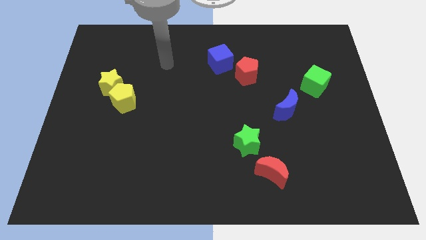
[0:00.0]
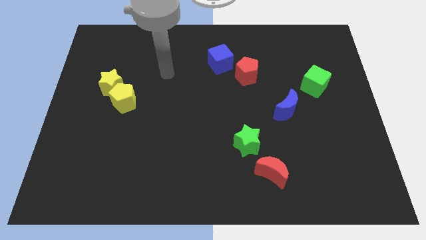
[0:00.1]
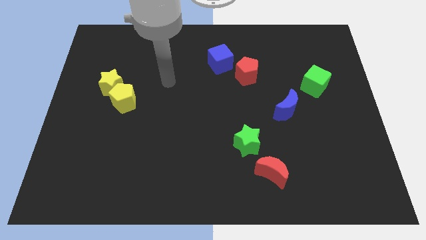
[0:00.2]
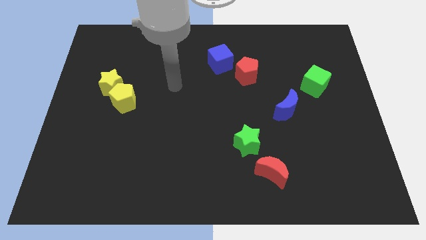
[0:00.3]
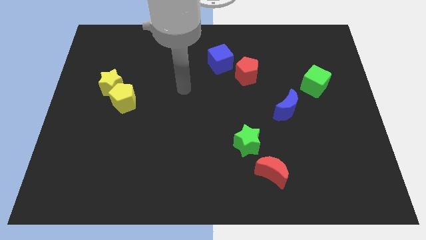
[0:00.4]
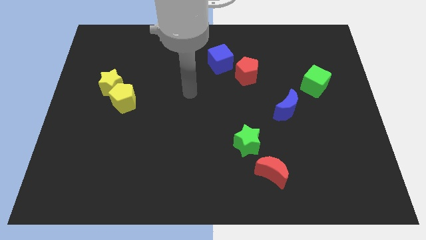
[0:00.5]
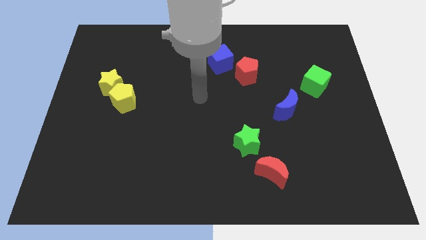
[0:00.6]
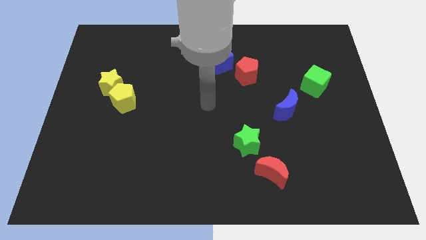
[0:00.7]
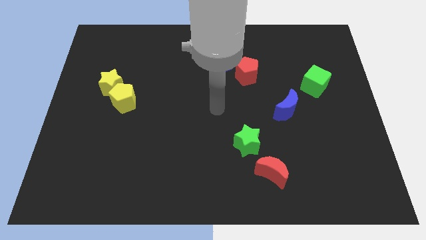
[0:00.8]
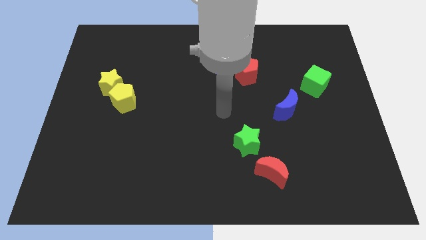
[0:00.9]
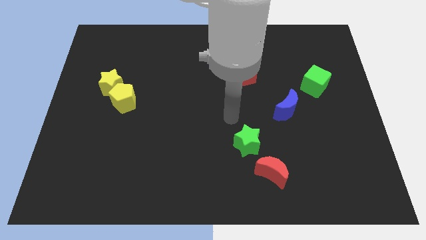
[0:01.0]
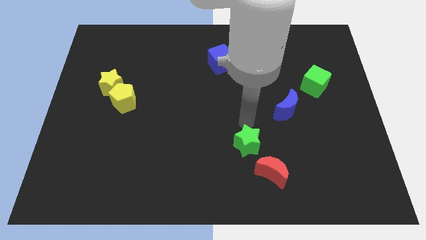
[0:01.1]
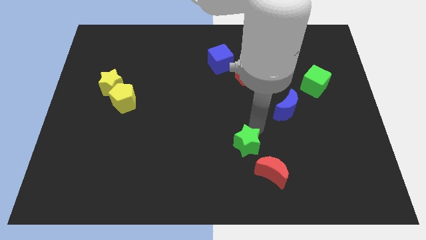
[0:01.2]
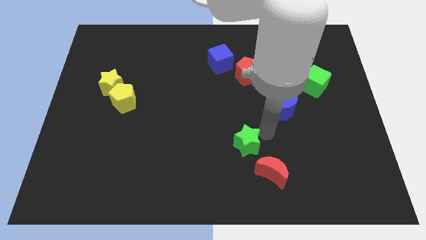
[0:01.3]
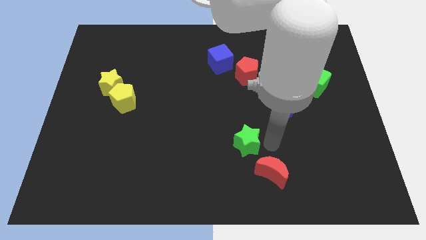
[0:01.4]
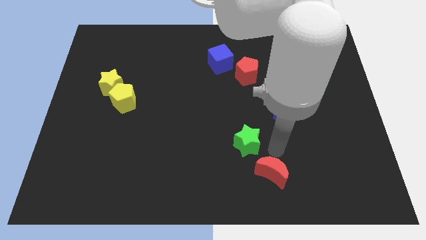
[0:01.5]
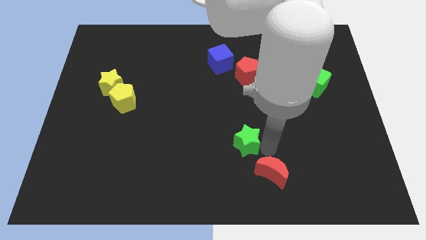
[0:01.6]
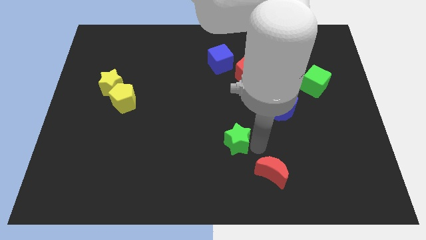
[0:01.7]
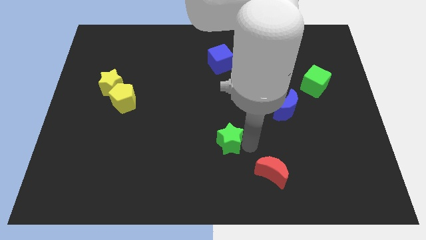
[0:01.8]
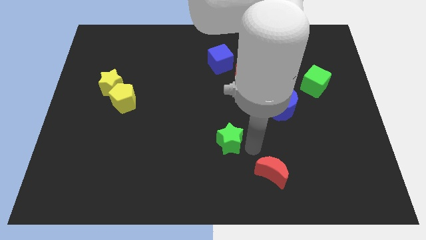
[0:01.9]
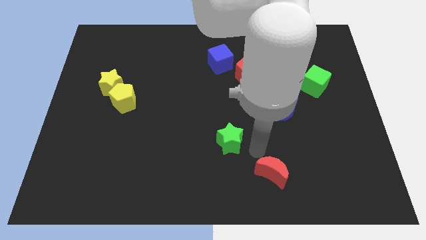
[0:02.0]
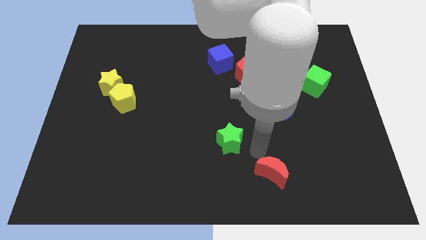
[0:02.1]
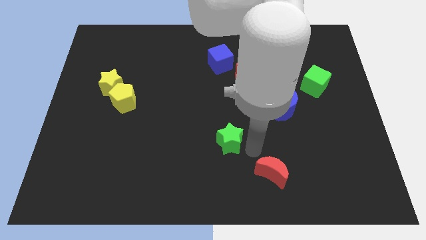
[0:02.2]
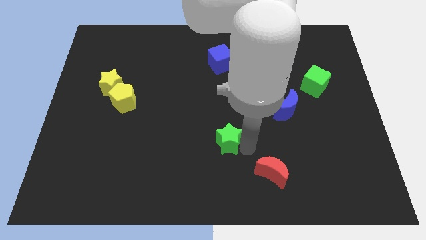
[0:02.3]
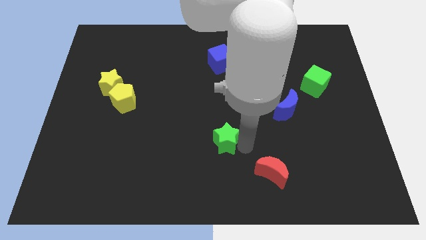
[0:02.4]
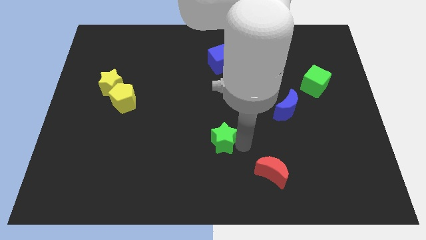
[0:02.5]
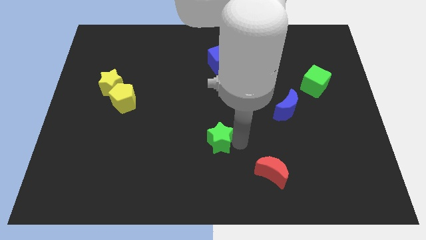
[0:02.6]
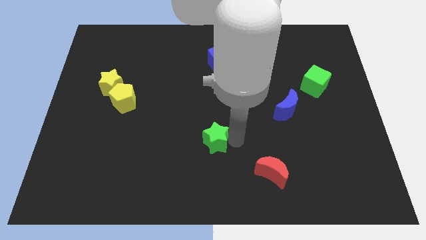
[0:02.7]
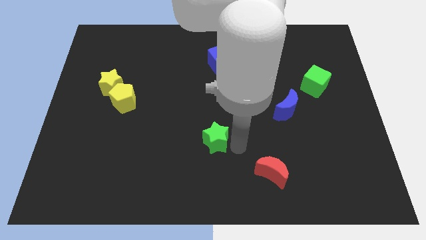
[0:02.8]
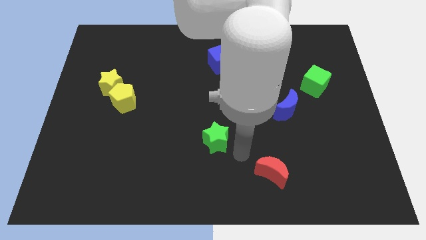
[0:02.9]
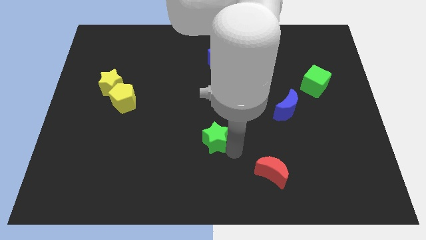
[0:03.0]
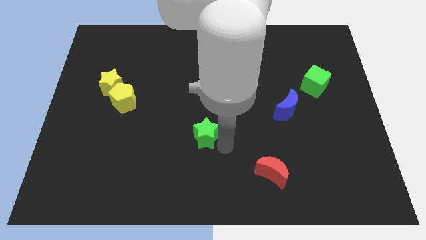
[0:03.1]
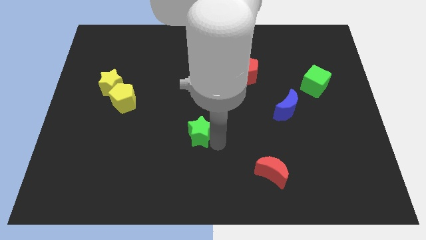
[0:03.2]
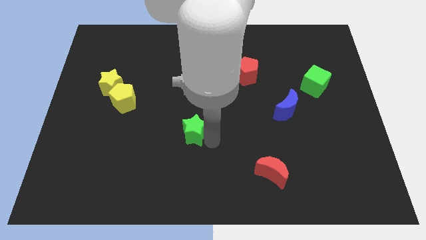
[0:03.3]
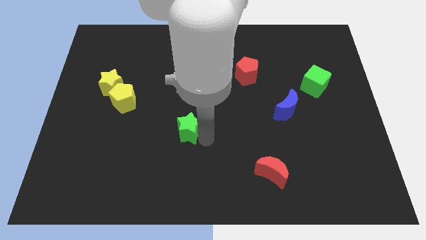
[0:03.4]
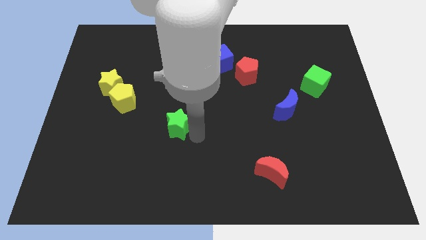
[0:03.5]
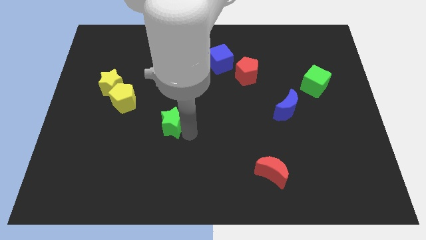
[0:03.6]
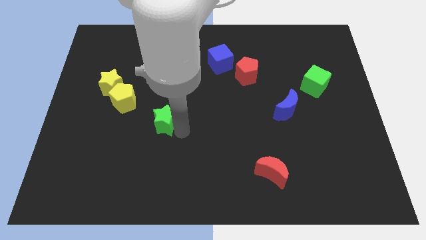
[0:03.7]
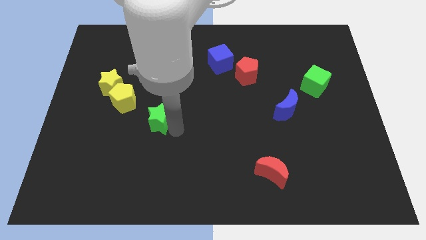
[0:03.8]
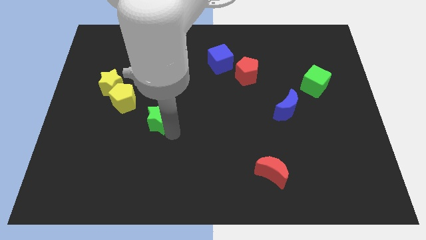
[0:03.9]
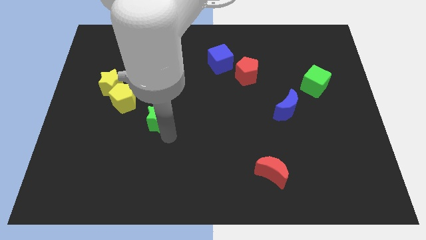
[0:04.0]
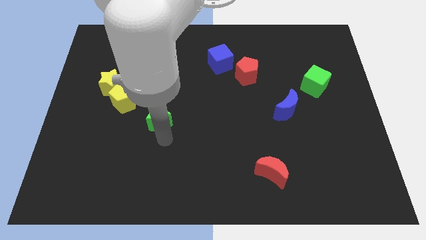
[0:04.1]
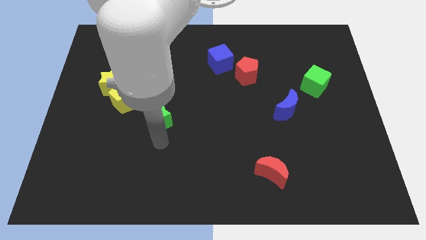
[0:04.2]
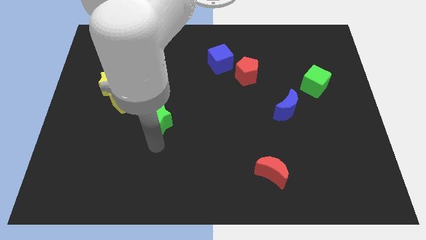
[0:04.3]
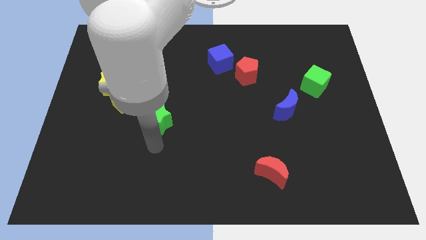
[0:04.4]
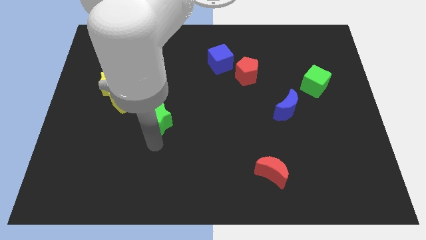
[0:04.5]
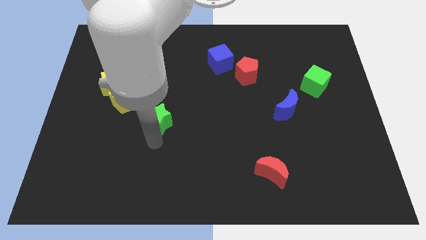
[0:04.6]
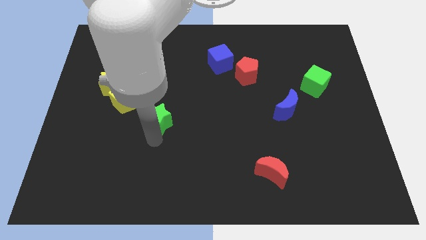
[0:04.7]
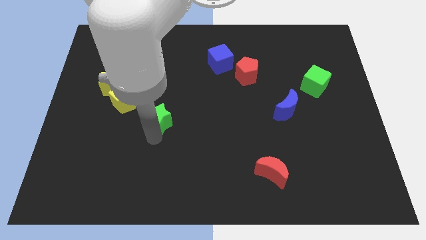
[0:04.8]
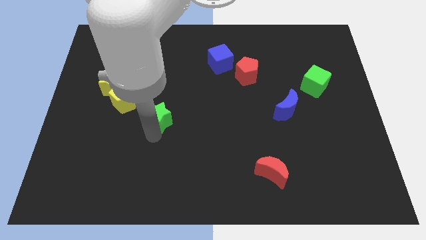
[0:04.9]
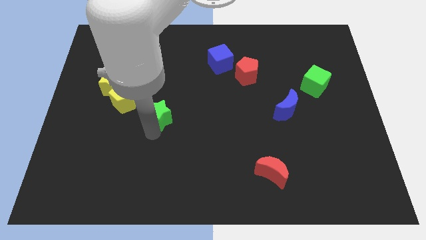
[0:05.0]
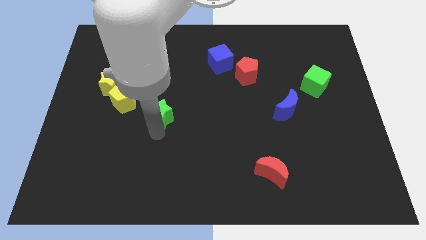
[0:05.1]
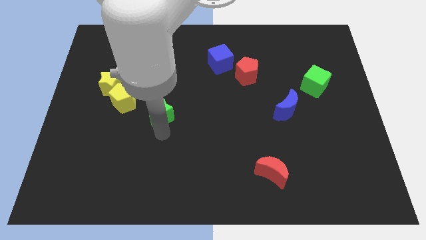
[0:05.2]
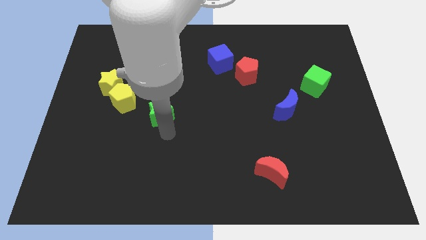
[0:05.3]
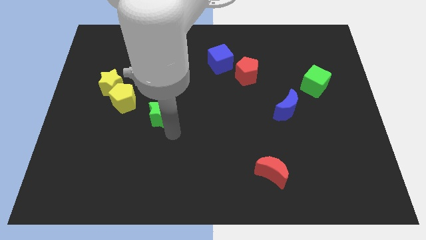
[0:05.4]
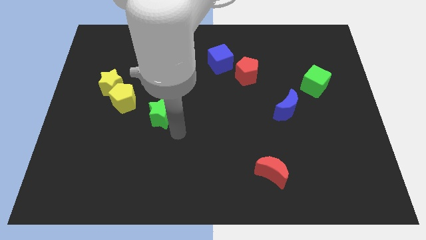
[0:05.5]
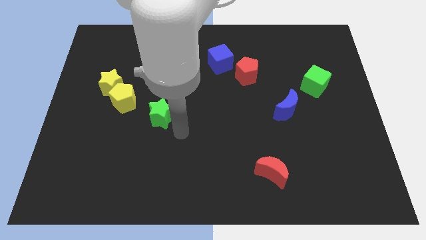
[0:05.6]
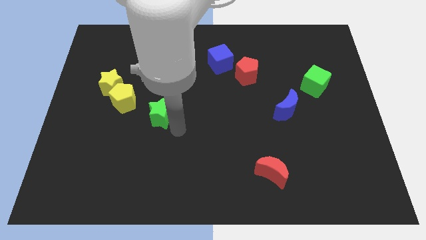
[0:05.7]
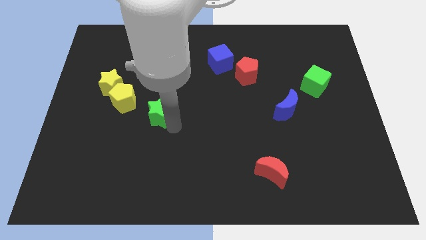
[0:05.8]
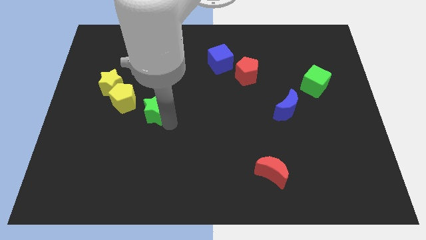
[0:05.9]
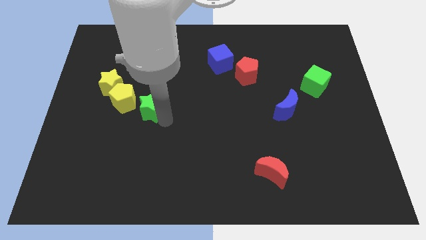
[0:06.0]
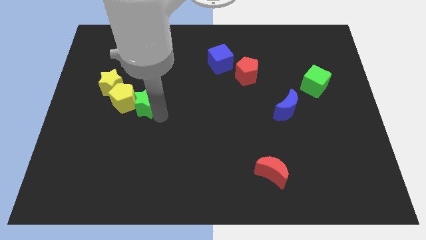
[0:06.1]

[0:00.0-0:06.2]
push the green star towards the yellow pentagon

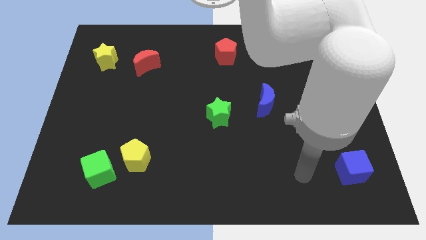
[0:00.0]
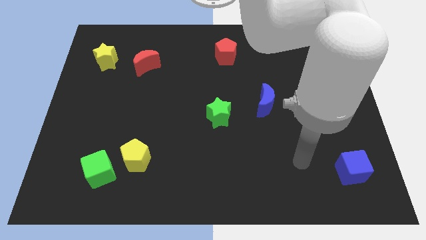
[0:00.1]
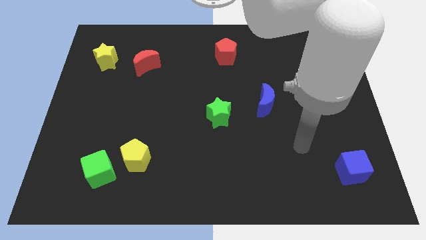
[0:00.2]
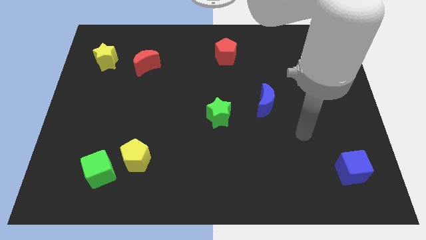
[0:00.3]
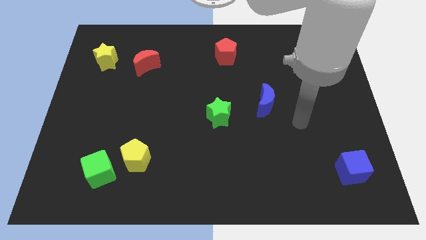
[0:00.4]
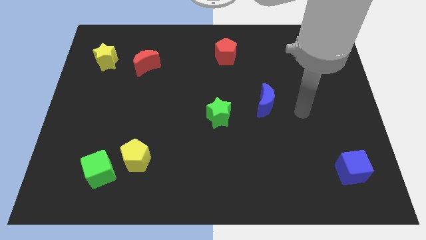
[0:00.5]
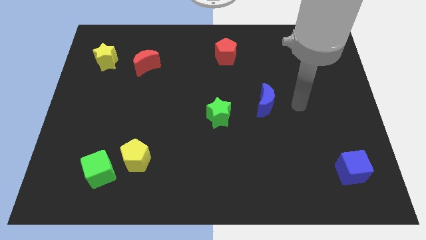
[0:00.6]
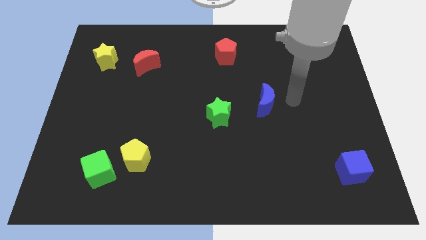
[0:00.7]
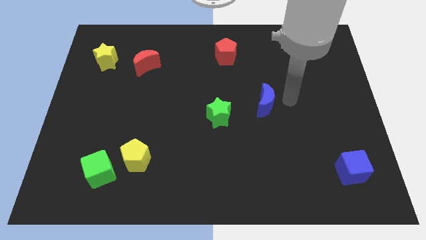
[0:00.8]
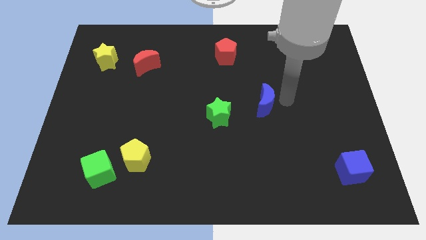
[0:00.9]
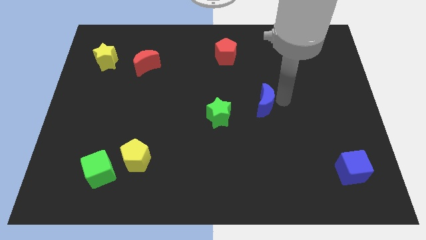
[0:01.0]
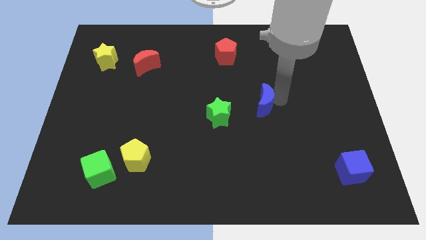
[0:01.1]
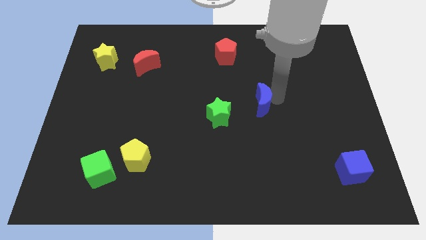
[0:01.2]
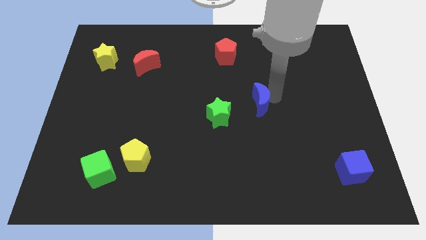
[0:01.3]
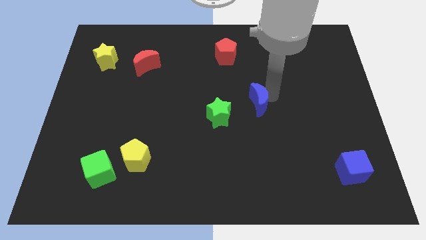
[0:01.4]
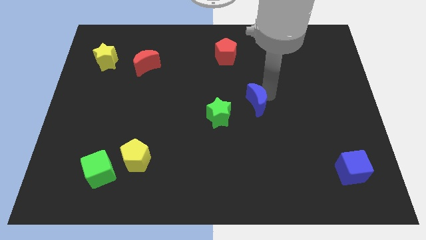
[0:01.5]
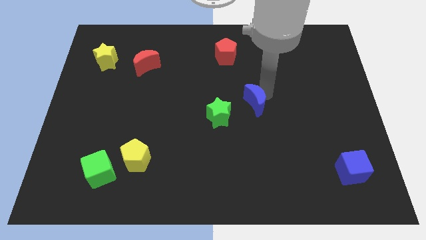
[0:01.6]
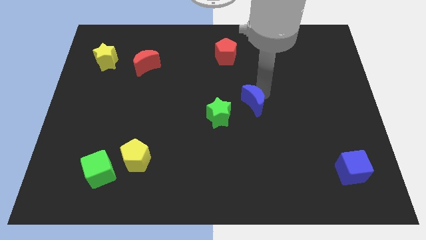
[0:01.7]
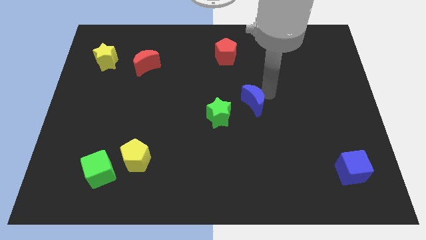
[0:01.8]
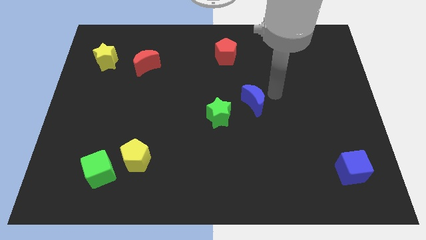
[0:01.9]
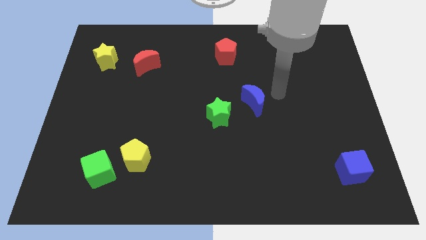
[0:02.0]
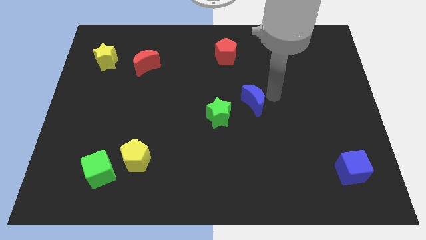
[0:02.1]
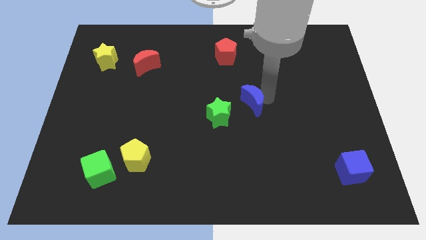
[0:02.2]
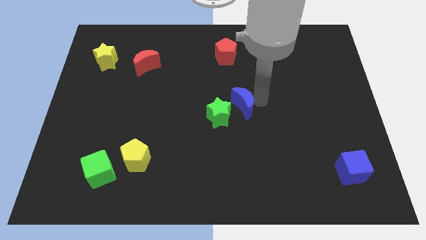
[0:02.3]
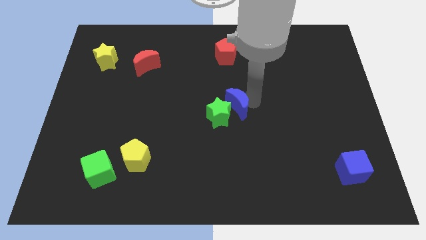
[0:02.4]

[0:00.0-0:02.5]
push the blue moon to the green star
